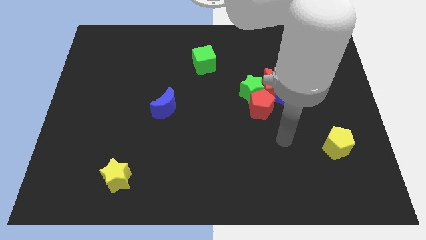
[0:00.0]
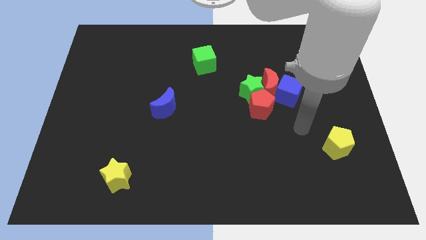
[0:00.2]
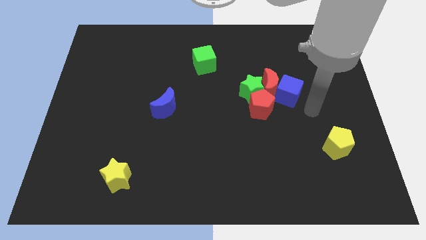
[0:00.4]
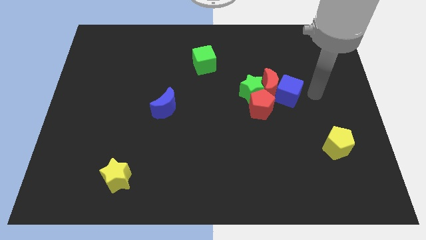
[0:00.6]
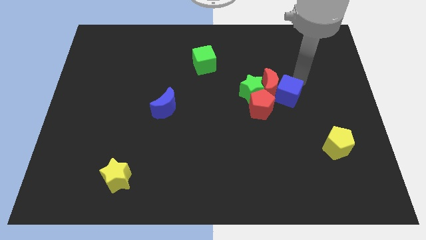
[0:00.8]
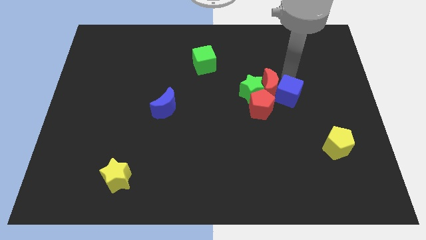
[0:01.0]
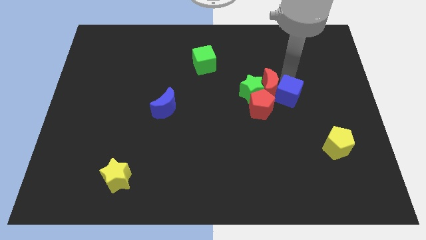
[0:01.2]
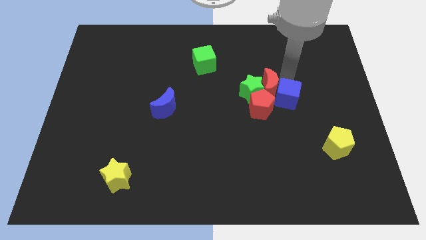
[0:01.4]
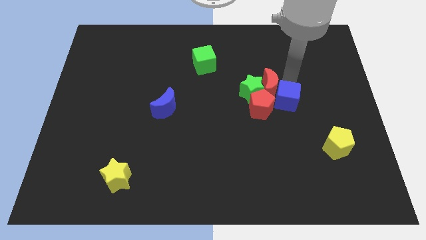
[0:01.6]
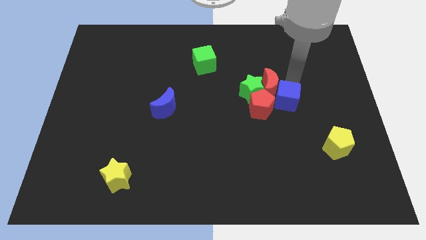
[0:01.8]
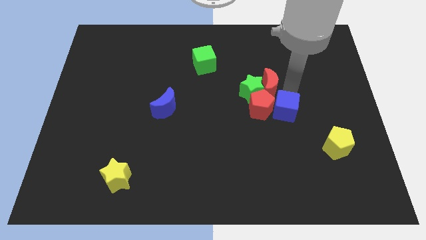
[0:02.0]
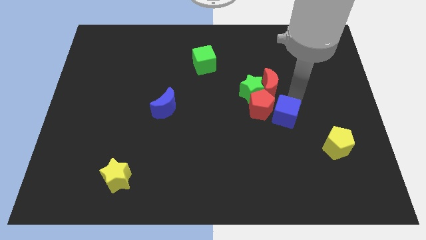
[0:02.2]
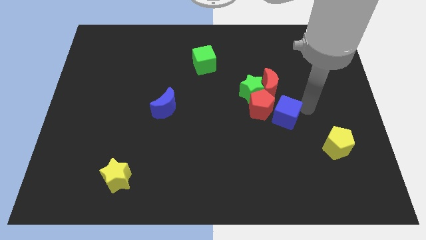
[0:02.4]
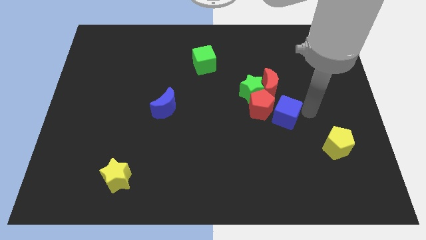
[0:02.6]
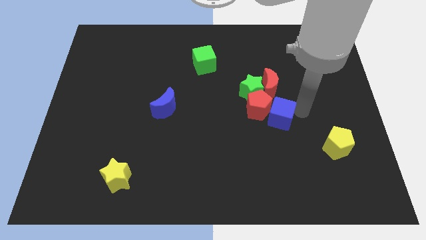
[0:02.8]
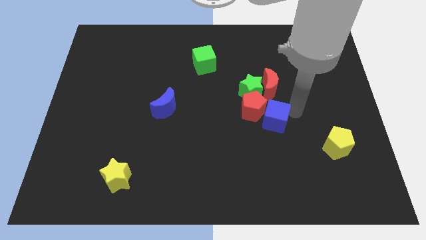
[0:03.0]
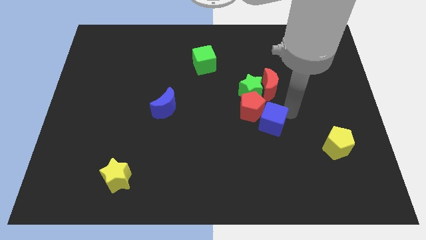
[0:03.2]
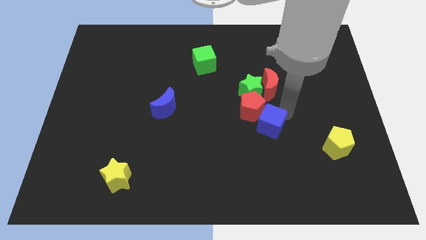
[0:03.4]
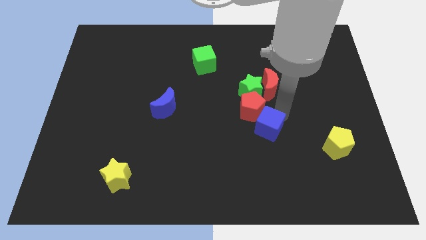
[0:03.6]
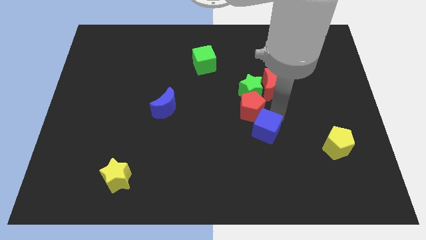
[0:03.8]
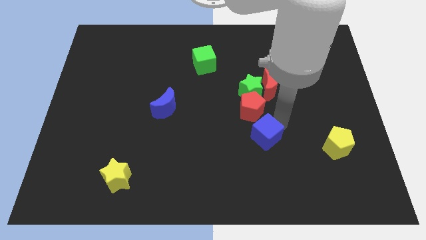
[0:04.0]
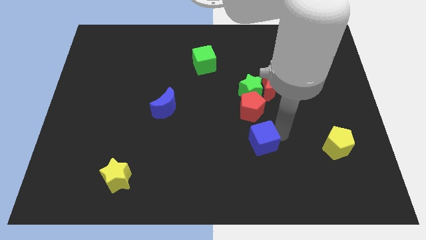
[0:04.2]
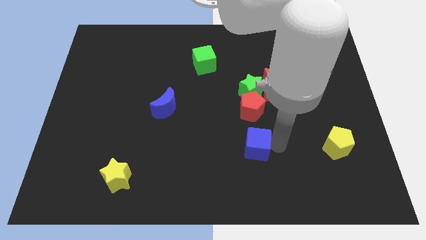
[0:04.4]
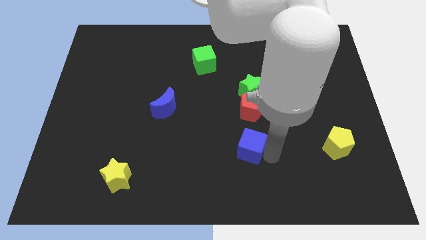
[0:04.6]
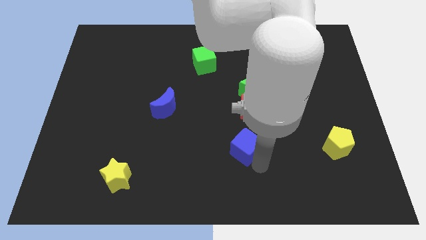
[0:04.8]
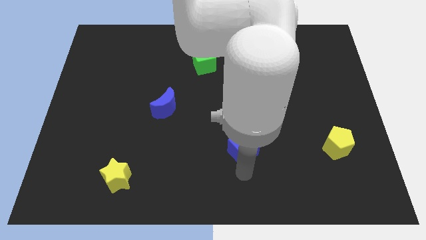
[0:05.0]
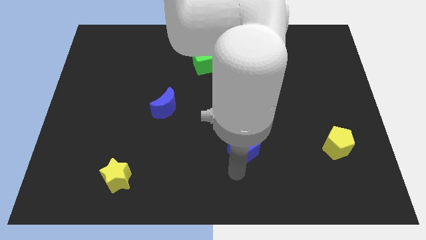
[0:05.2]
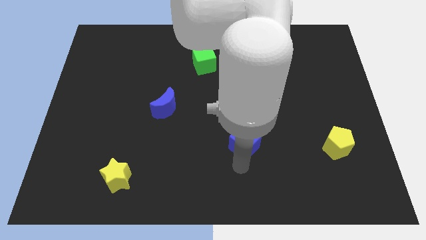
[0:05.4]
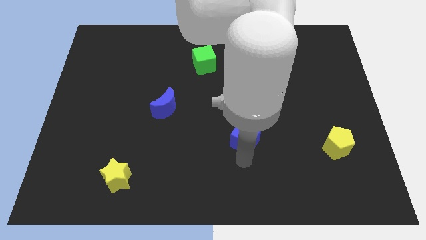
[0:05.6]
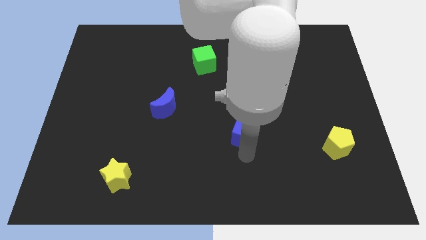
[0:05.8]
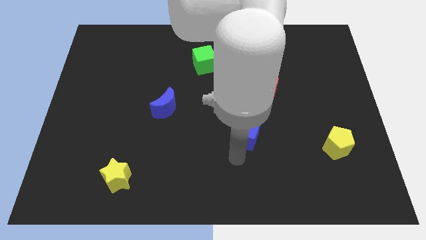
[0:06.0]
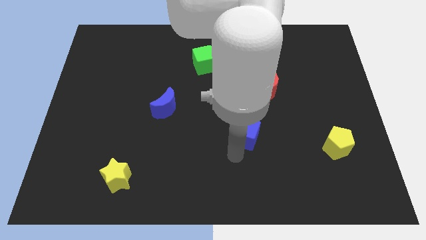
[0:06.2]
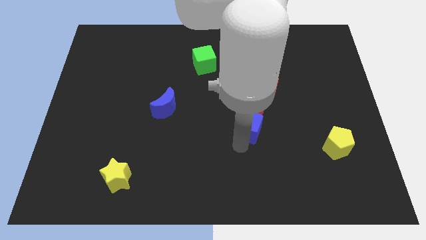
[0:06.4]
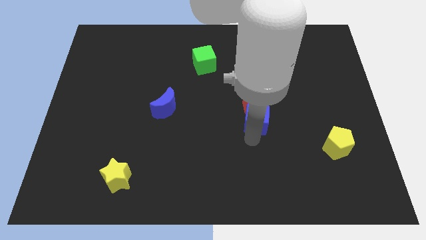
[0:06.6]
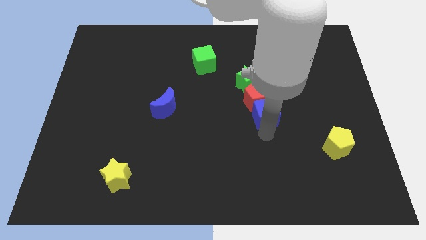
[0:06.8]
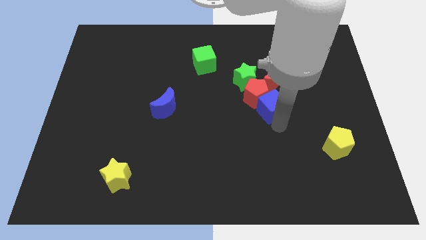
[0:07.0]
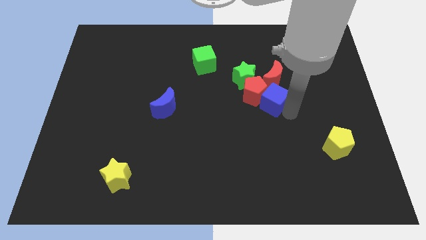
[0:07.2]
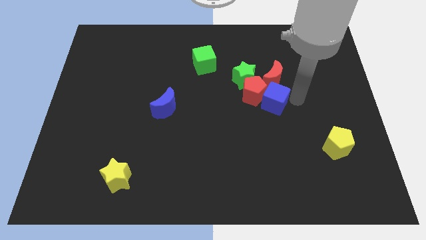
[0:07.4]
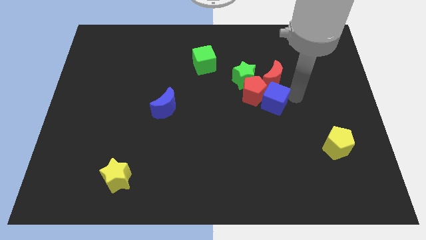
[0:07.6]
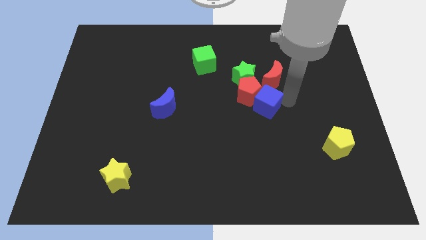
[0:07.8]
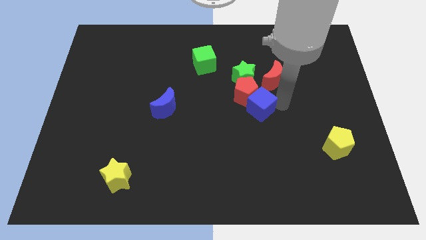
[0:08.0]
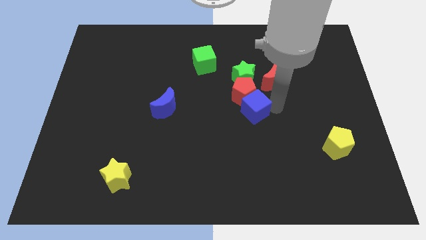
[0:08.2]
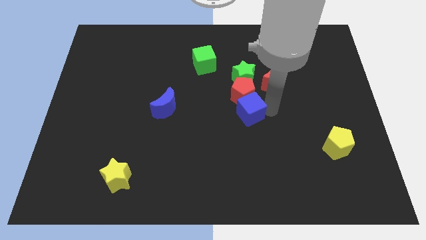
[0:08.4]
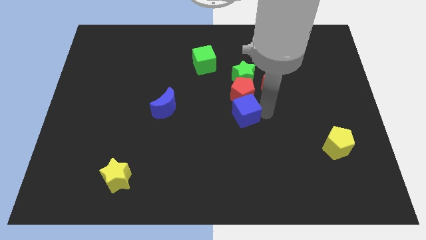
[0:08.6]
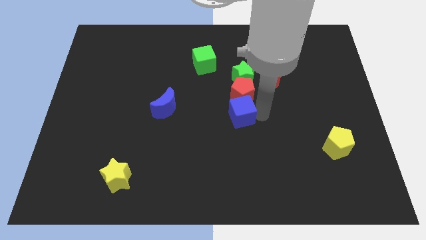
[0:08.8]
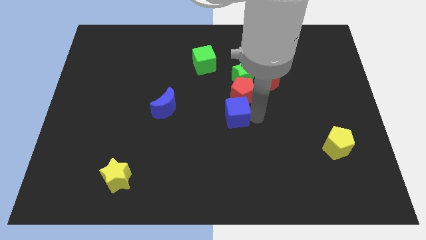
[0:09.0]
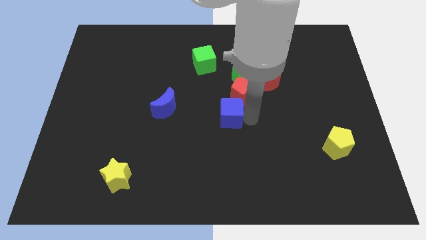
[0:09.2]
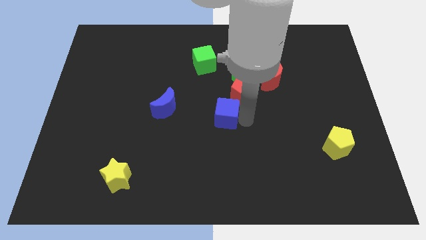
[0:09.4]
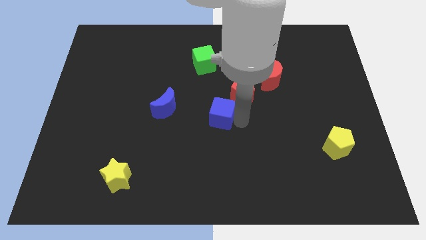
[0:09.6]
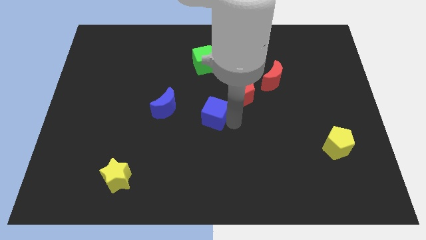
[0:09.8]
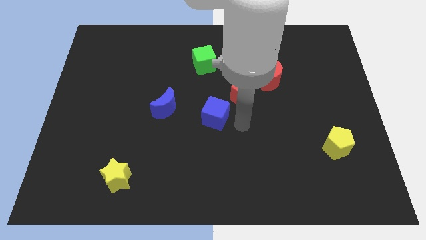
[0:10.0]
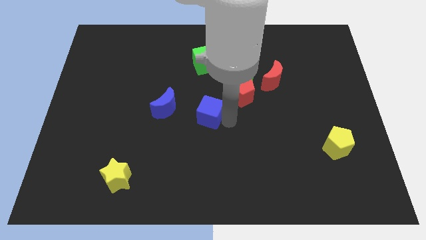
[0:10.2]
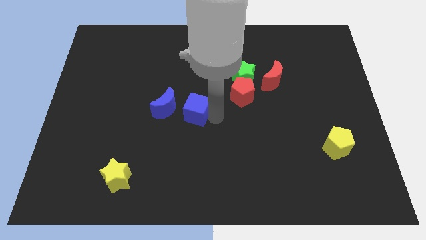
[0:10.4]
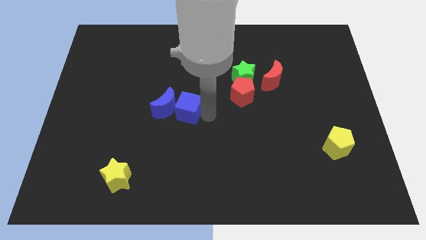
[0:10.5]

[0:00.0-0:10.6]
push the blue cube to the blue moon

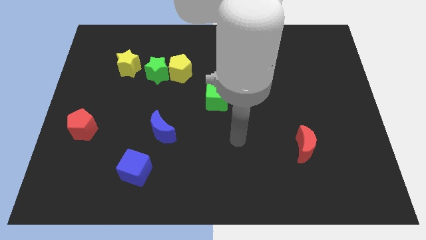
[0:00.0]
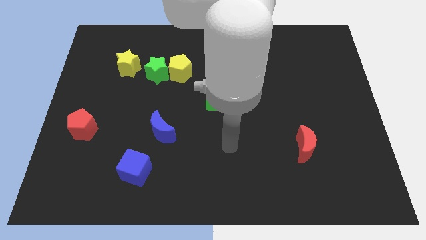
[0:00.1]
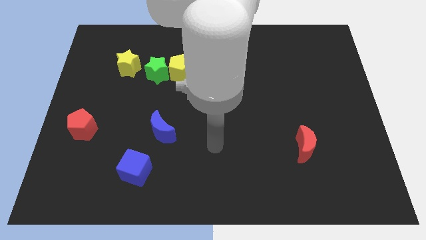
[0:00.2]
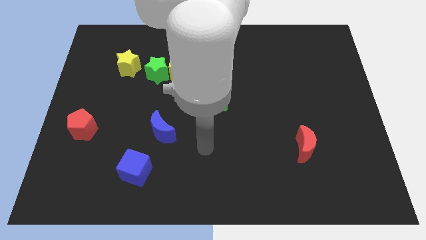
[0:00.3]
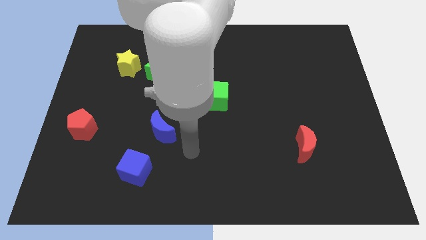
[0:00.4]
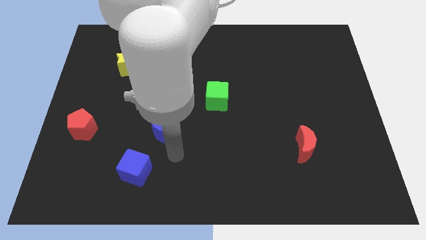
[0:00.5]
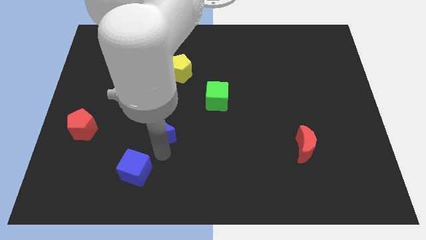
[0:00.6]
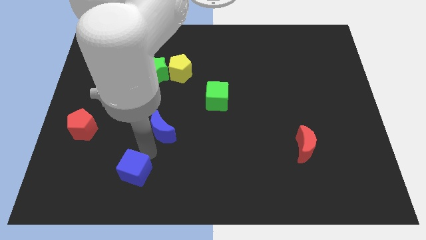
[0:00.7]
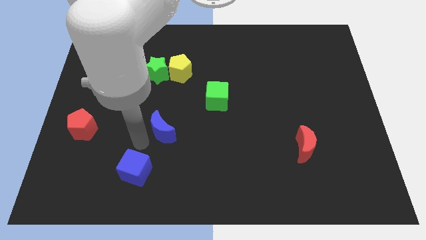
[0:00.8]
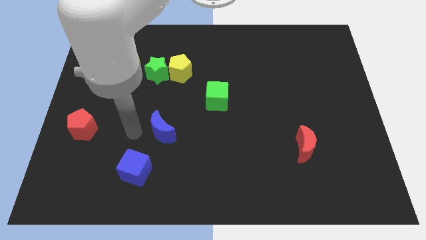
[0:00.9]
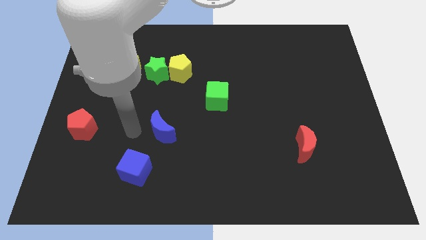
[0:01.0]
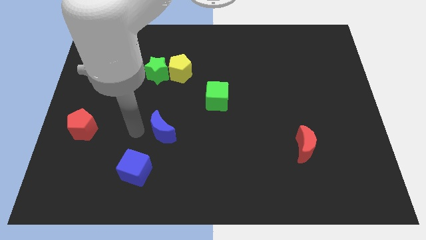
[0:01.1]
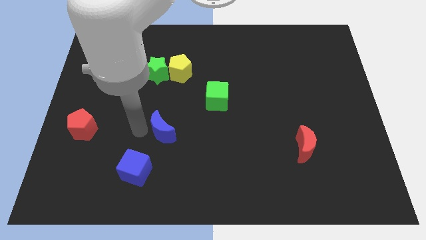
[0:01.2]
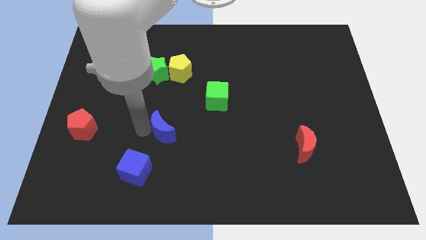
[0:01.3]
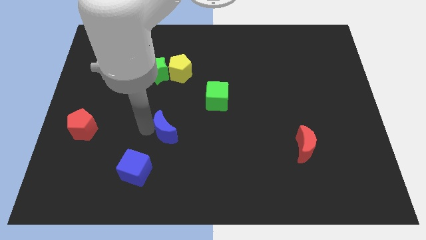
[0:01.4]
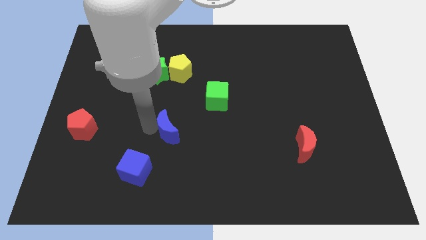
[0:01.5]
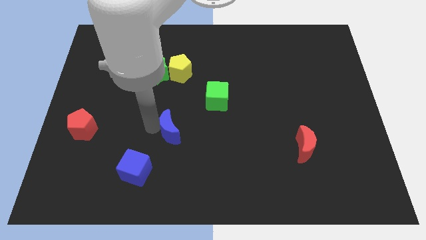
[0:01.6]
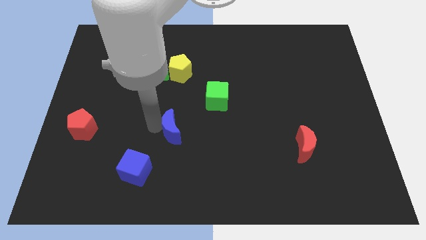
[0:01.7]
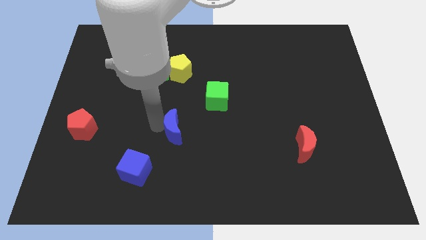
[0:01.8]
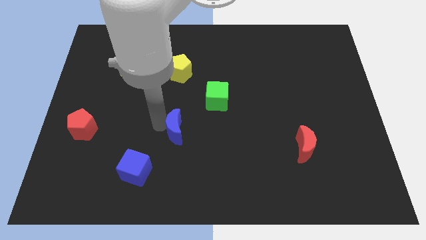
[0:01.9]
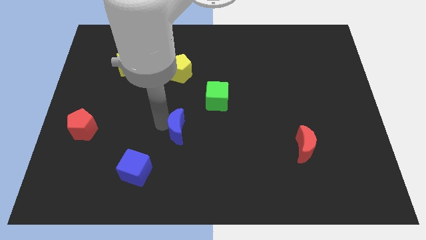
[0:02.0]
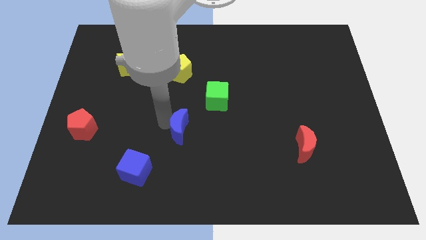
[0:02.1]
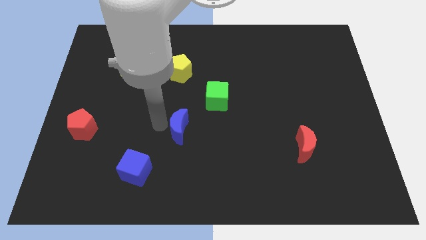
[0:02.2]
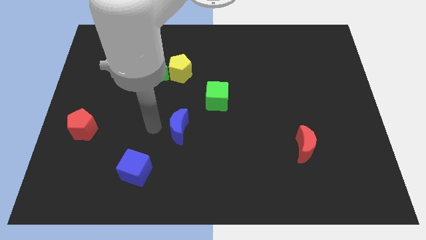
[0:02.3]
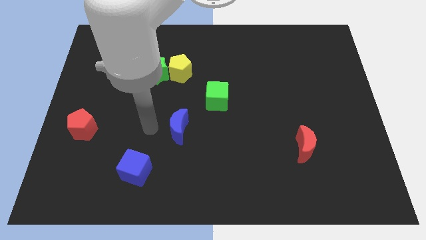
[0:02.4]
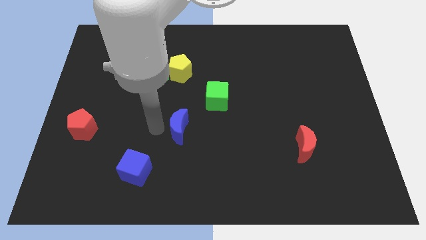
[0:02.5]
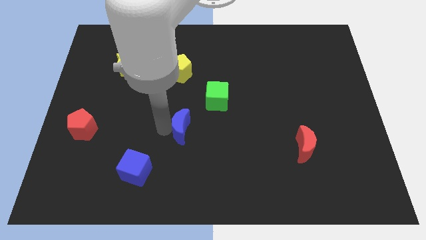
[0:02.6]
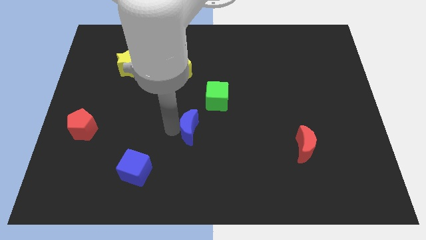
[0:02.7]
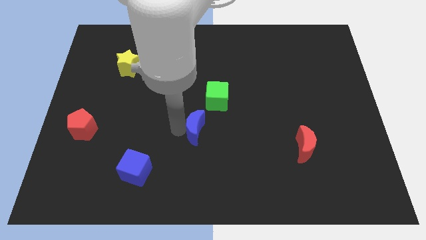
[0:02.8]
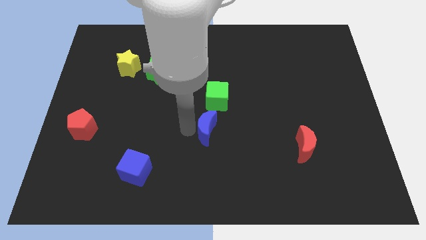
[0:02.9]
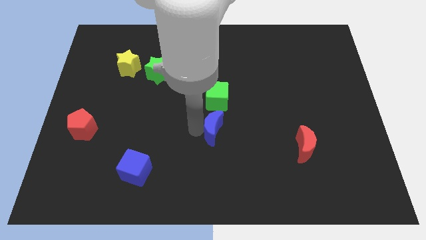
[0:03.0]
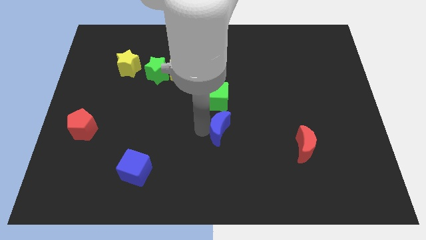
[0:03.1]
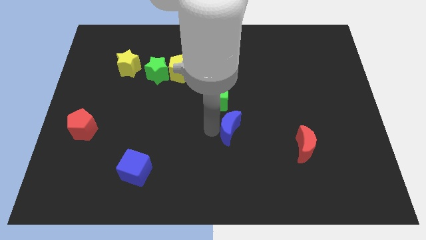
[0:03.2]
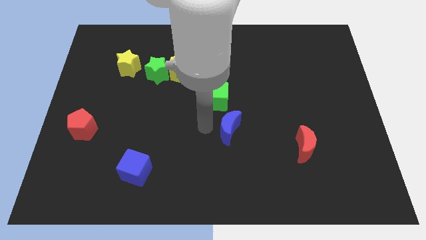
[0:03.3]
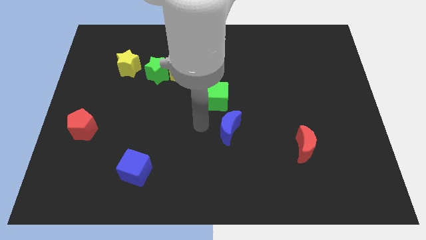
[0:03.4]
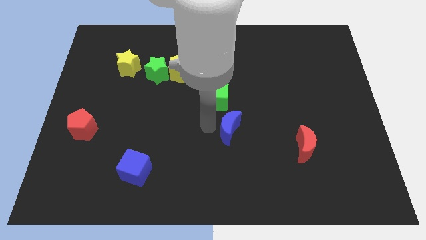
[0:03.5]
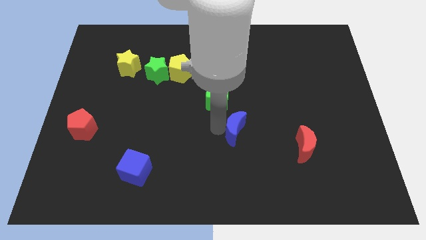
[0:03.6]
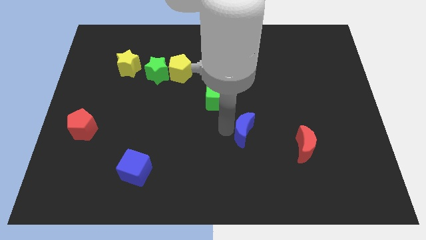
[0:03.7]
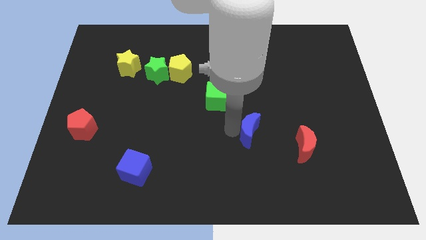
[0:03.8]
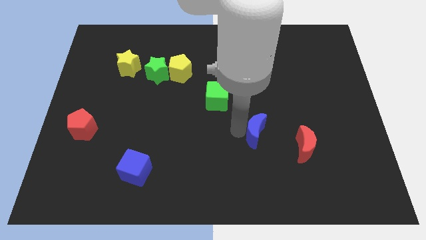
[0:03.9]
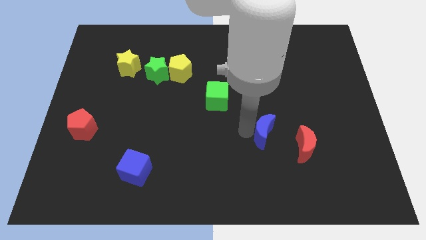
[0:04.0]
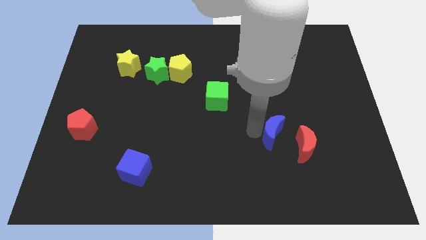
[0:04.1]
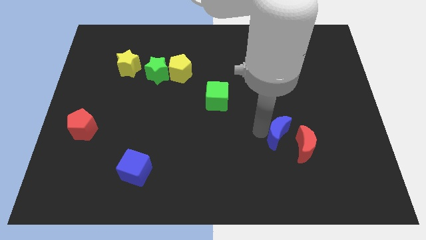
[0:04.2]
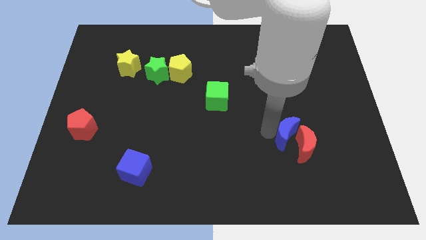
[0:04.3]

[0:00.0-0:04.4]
push the blue moon to the red moon
